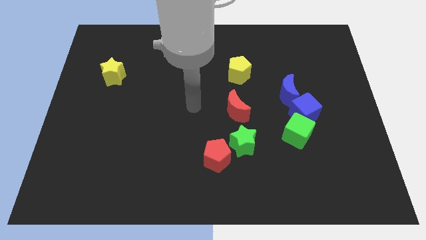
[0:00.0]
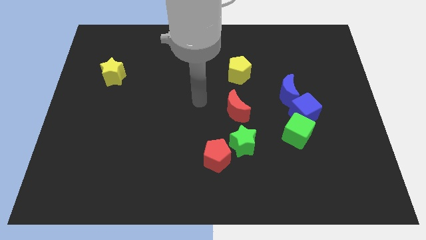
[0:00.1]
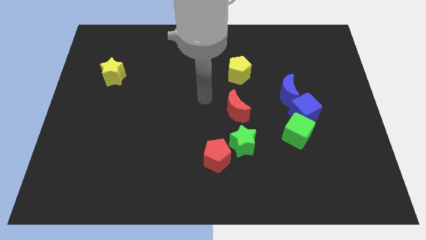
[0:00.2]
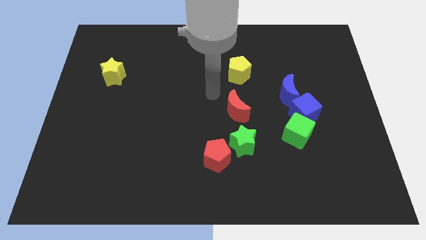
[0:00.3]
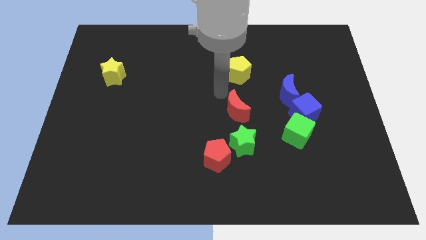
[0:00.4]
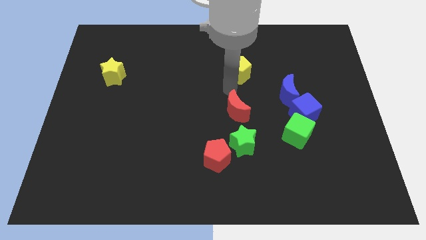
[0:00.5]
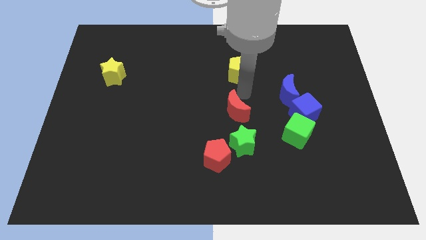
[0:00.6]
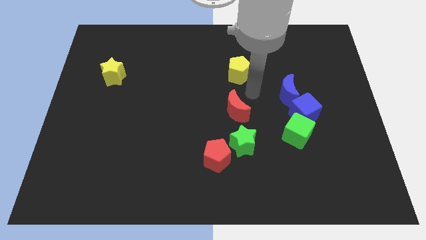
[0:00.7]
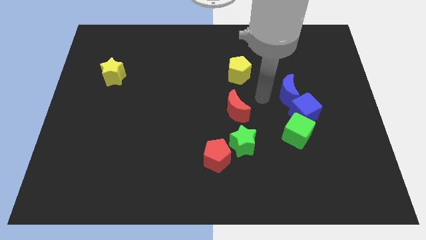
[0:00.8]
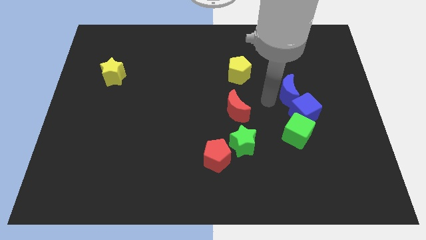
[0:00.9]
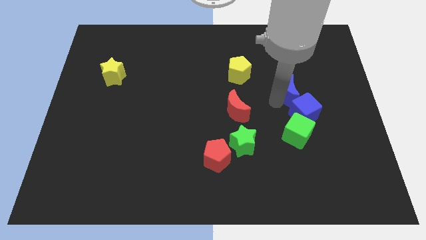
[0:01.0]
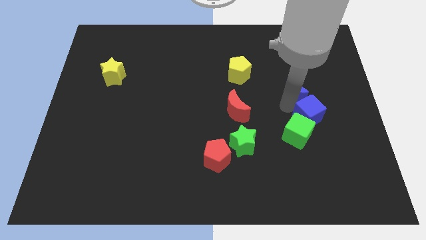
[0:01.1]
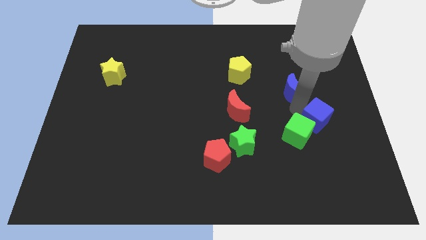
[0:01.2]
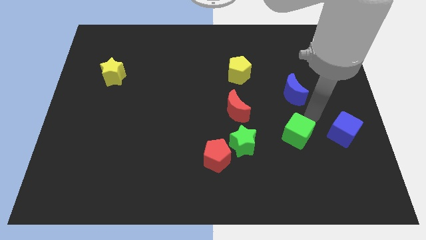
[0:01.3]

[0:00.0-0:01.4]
pull the green cube apart from the blue cube

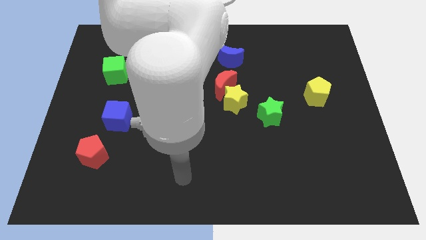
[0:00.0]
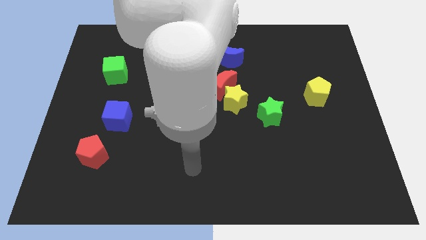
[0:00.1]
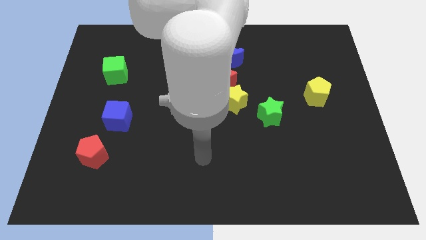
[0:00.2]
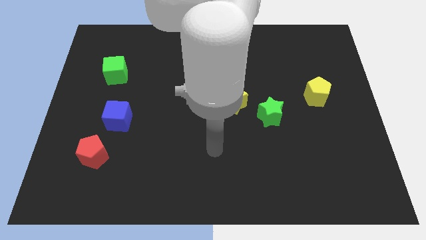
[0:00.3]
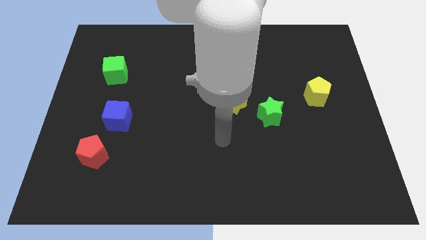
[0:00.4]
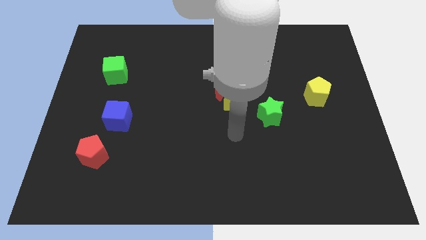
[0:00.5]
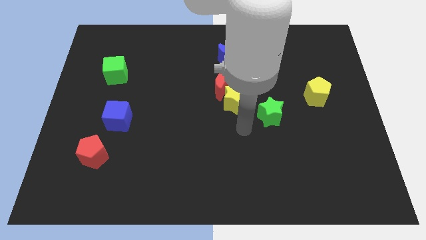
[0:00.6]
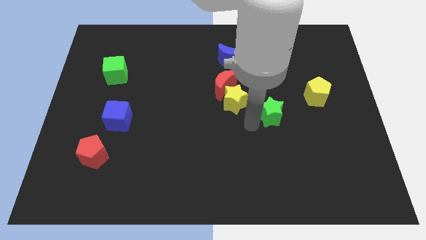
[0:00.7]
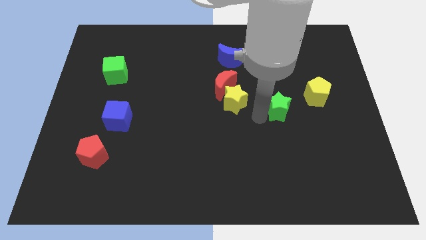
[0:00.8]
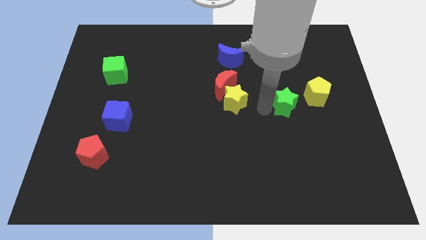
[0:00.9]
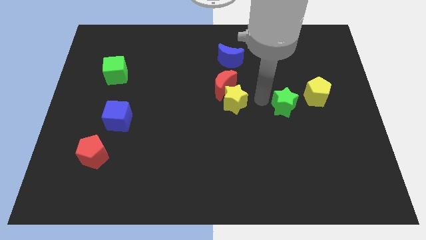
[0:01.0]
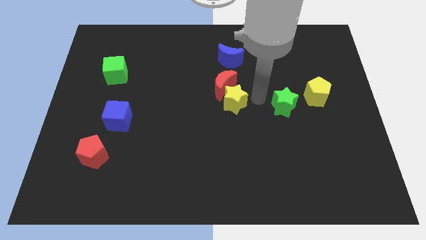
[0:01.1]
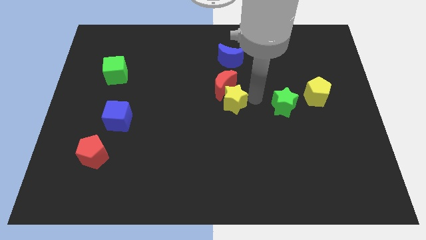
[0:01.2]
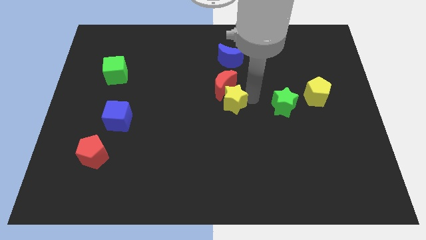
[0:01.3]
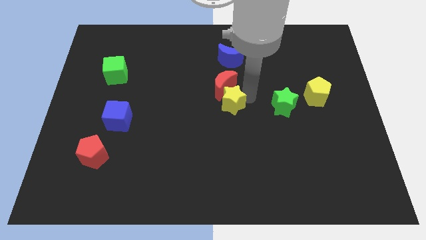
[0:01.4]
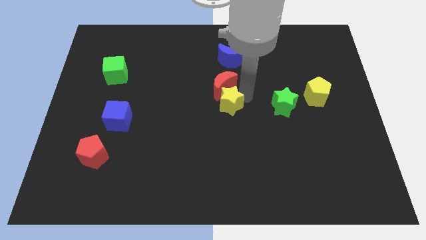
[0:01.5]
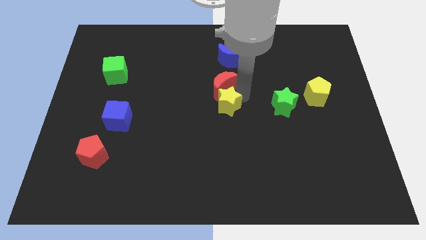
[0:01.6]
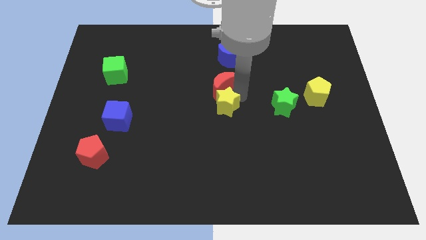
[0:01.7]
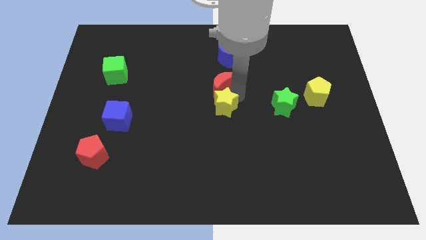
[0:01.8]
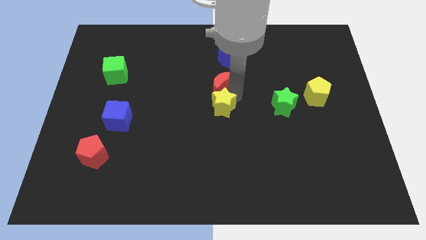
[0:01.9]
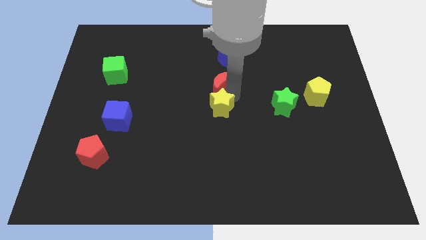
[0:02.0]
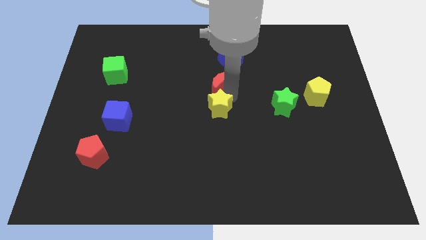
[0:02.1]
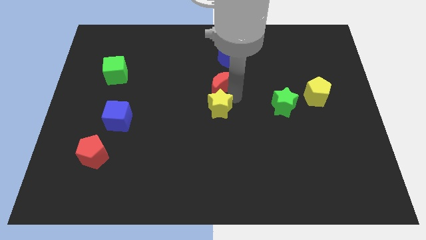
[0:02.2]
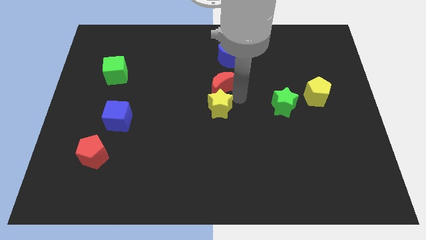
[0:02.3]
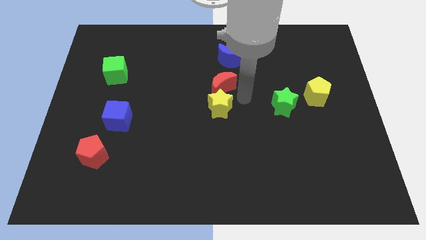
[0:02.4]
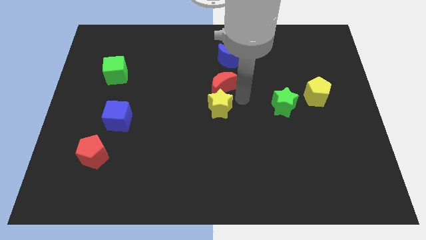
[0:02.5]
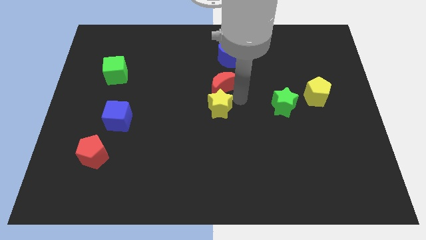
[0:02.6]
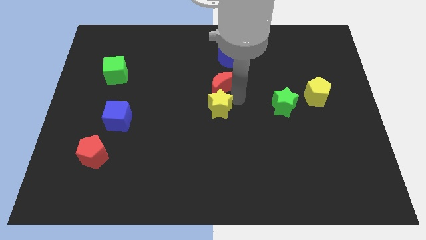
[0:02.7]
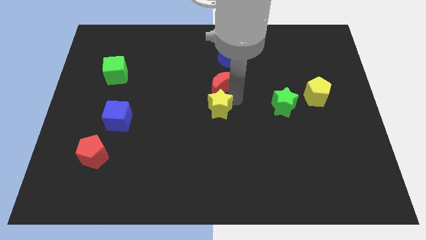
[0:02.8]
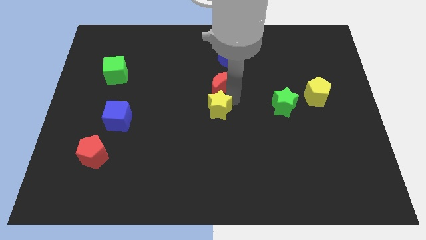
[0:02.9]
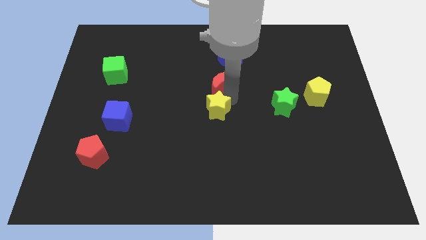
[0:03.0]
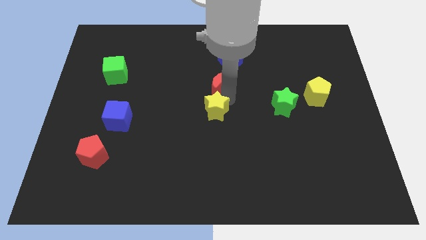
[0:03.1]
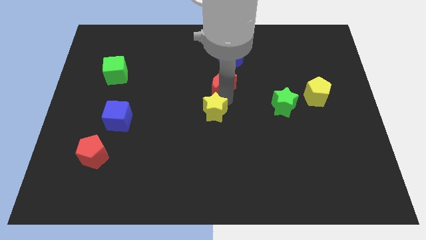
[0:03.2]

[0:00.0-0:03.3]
separate the yellow star from the red moon and green star

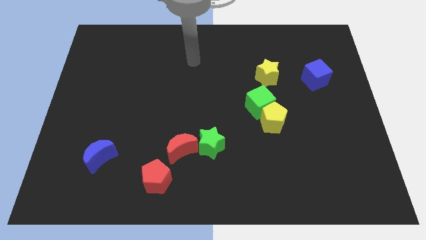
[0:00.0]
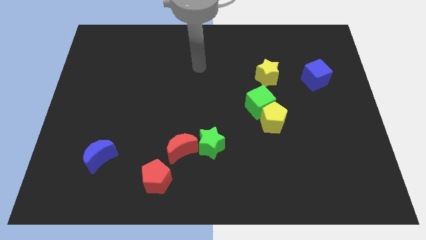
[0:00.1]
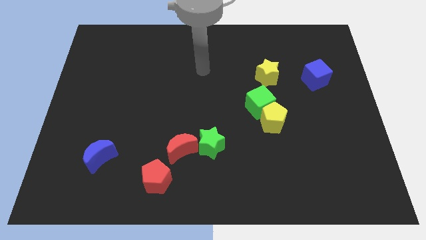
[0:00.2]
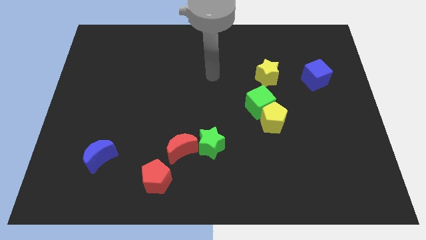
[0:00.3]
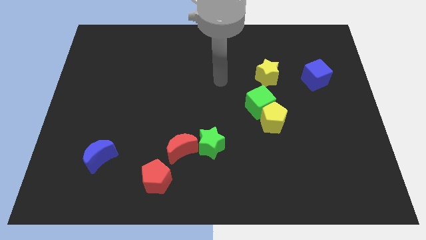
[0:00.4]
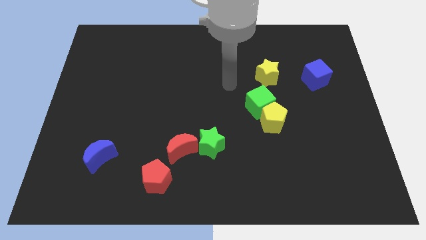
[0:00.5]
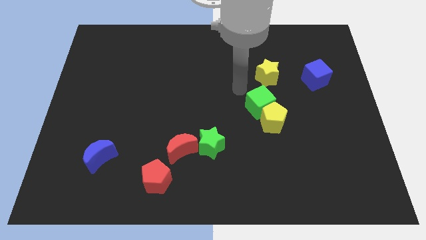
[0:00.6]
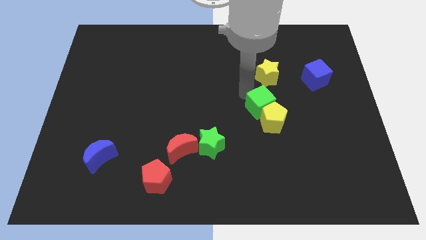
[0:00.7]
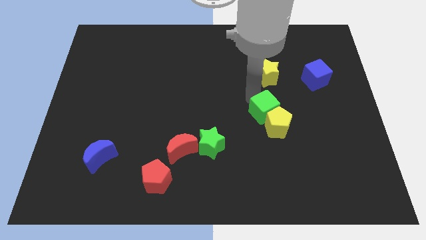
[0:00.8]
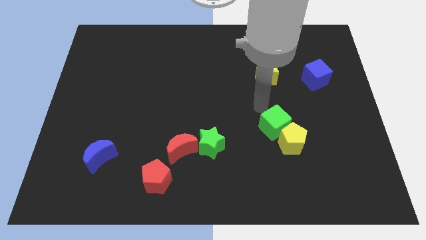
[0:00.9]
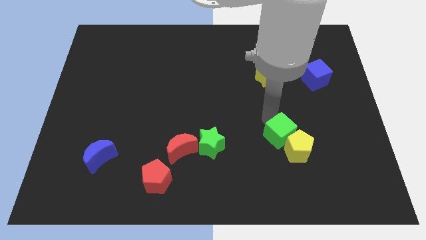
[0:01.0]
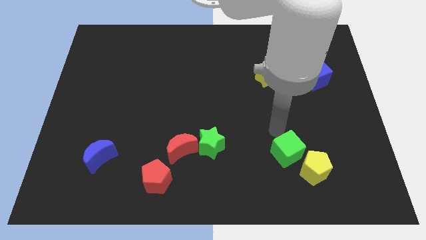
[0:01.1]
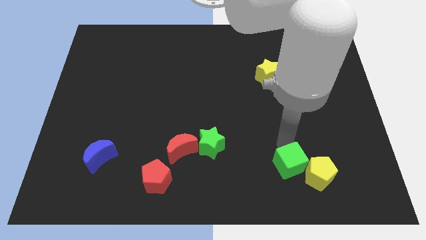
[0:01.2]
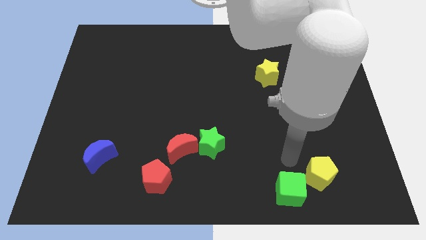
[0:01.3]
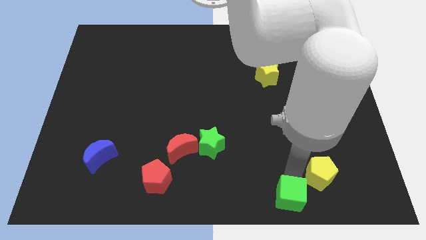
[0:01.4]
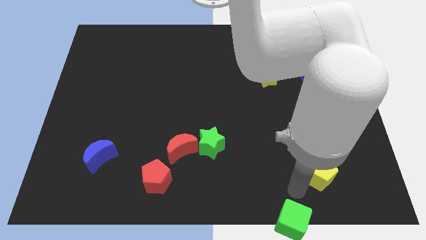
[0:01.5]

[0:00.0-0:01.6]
pull the yellow pentagon apart from the green cube

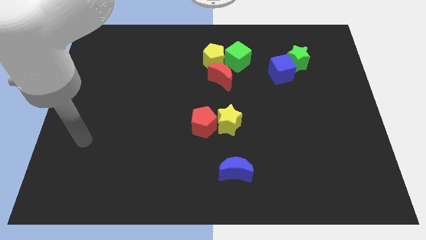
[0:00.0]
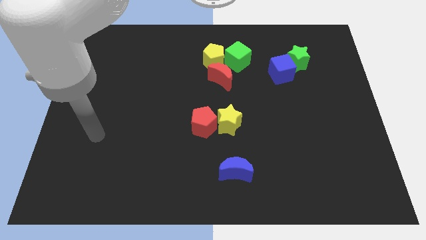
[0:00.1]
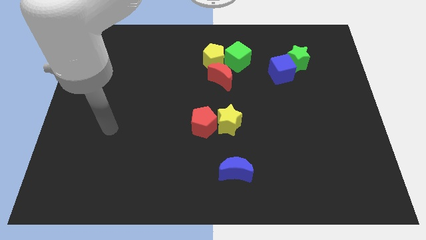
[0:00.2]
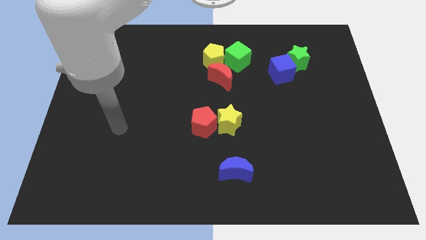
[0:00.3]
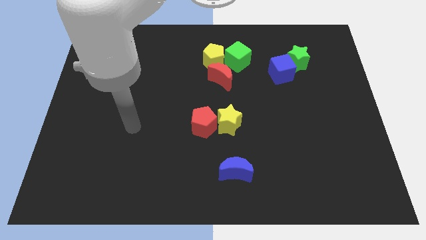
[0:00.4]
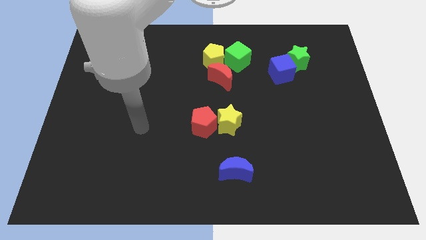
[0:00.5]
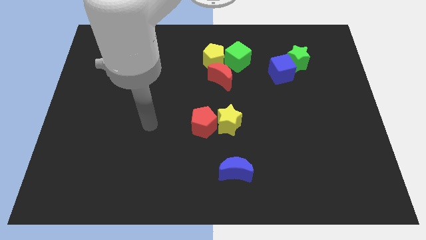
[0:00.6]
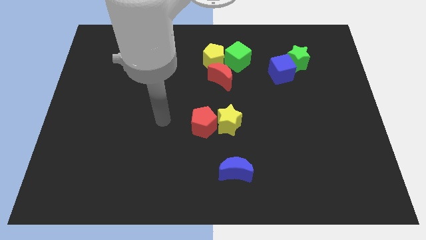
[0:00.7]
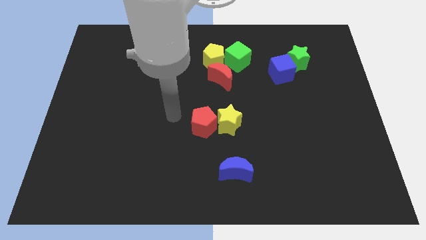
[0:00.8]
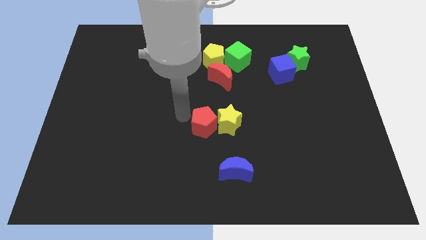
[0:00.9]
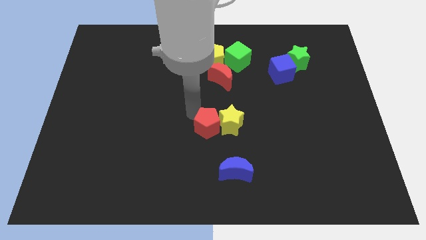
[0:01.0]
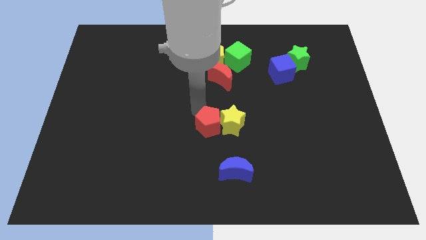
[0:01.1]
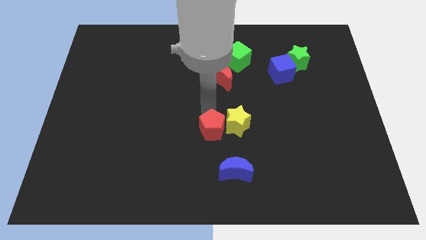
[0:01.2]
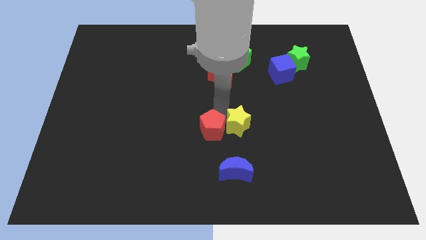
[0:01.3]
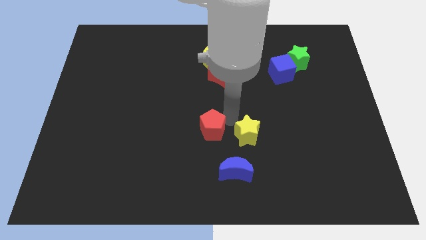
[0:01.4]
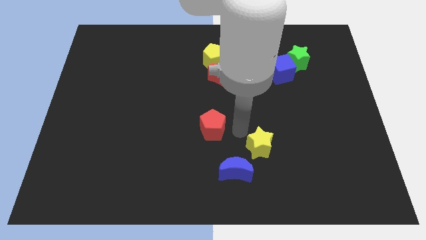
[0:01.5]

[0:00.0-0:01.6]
separate the red pentagon from the yellow star

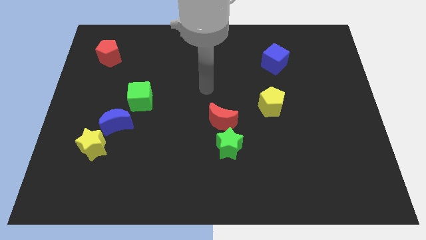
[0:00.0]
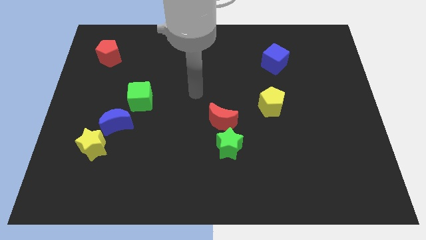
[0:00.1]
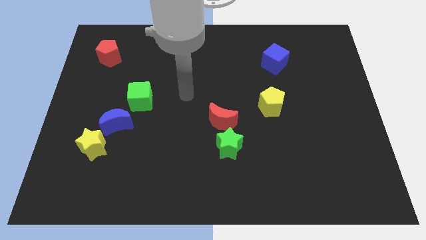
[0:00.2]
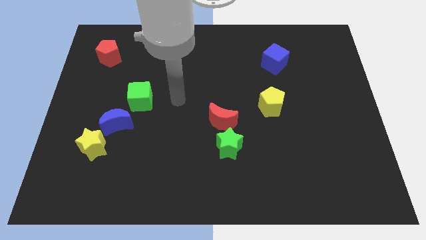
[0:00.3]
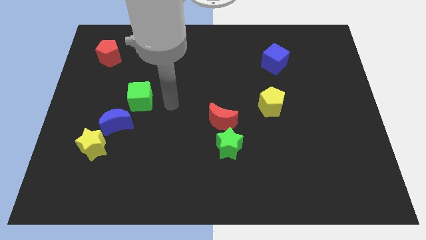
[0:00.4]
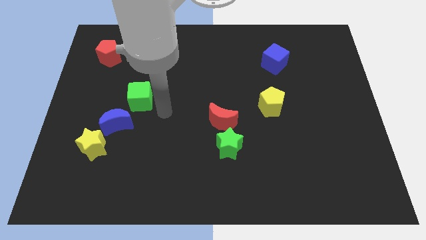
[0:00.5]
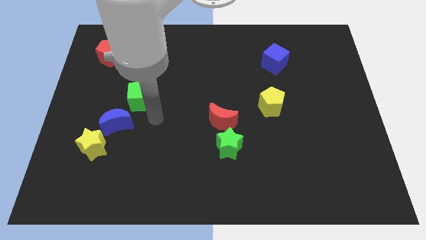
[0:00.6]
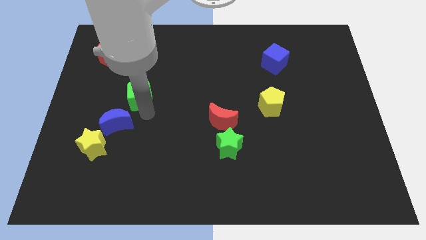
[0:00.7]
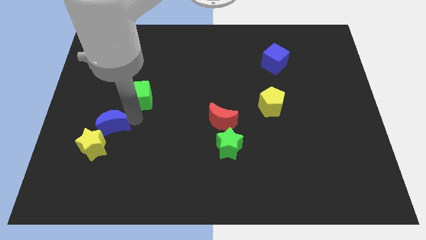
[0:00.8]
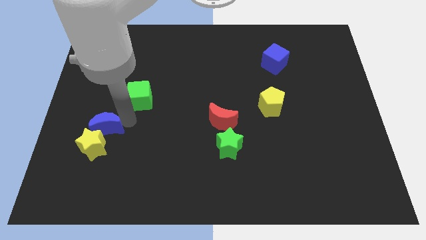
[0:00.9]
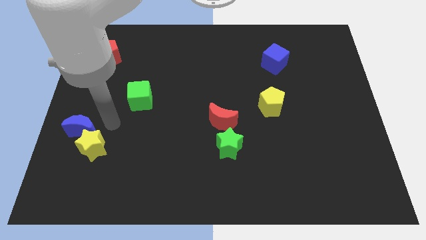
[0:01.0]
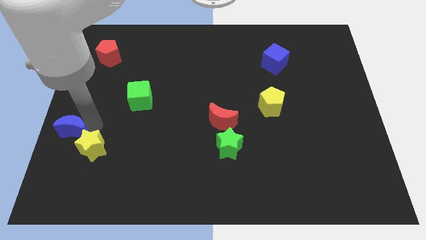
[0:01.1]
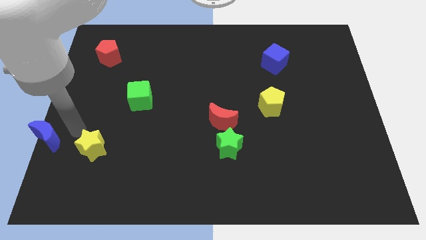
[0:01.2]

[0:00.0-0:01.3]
move the yellow star away from the blue moon
